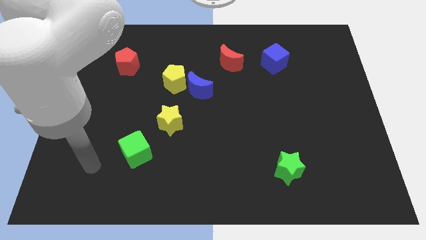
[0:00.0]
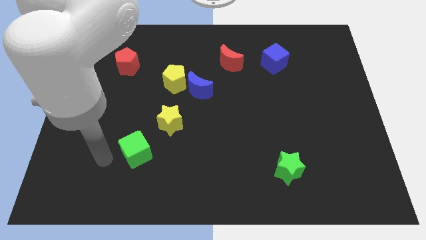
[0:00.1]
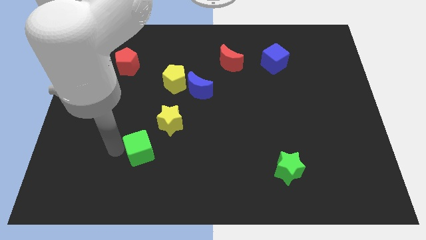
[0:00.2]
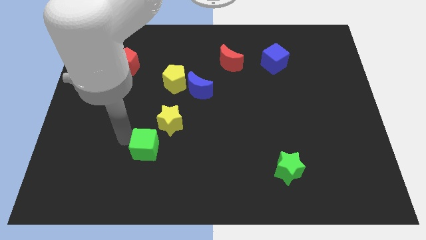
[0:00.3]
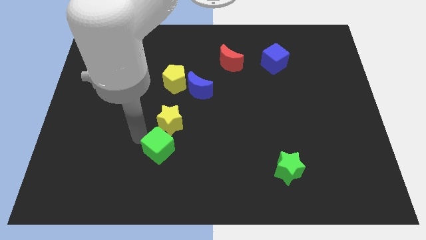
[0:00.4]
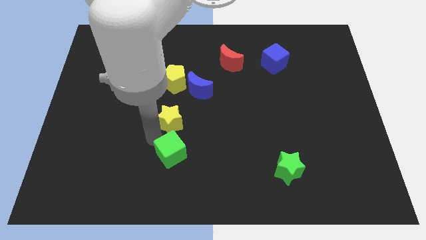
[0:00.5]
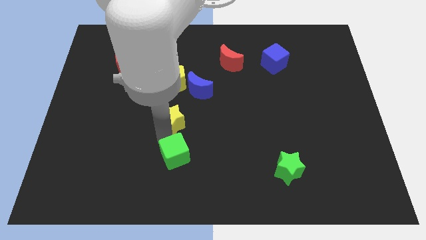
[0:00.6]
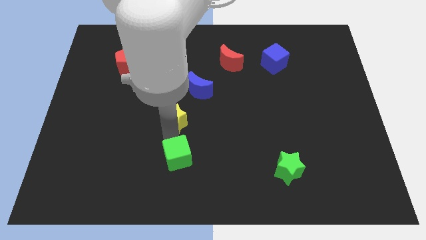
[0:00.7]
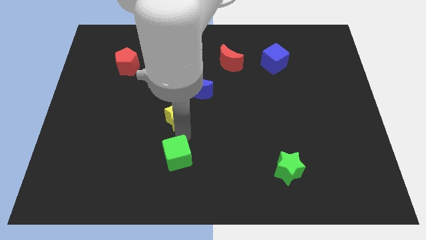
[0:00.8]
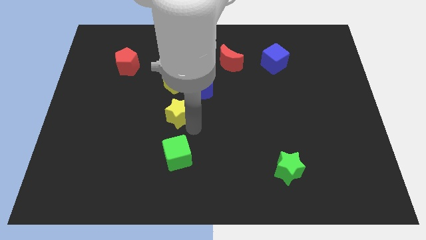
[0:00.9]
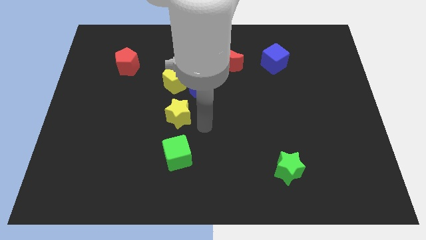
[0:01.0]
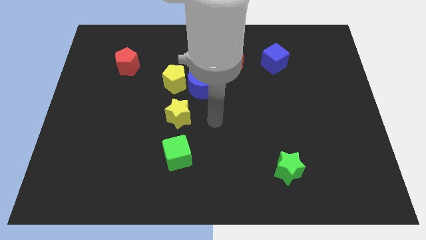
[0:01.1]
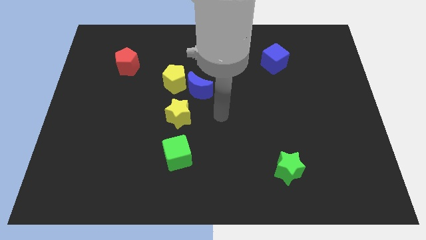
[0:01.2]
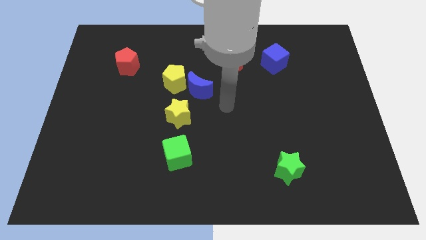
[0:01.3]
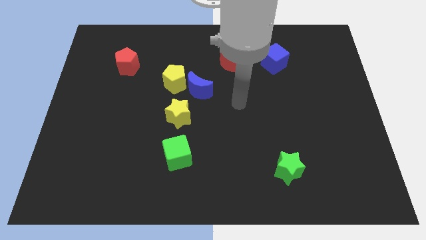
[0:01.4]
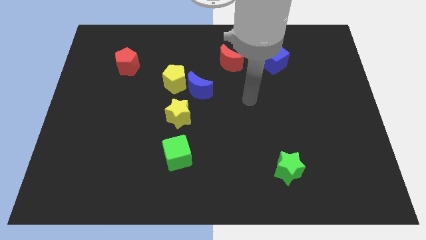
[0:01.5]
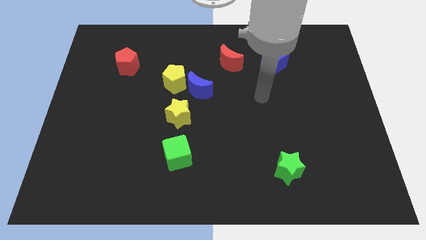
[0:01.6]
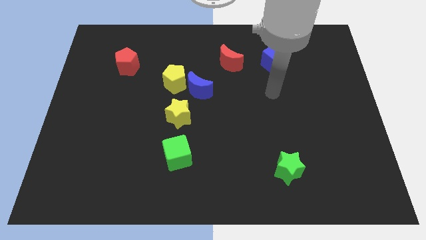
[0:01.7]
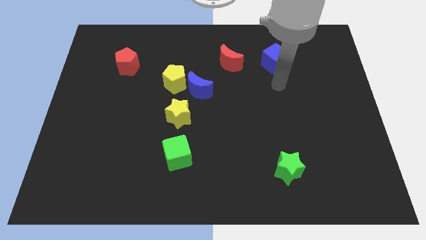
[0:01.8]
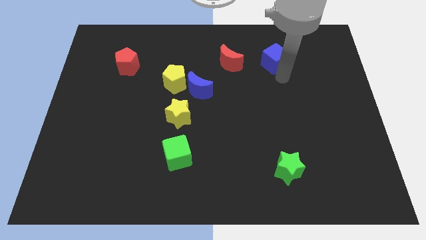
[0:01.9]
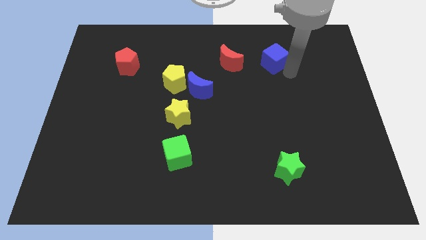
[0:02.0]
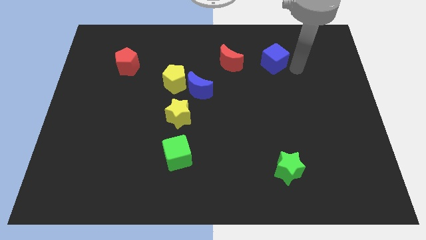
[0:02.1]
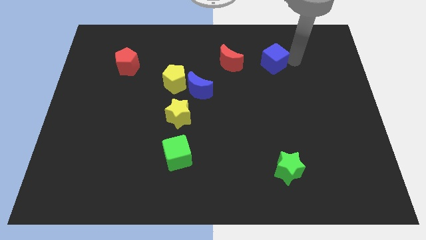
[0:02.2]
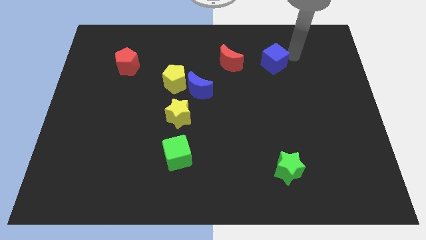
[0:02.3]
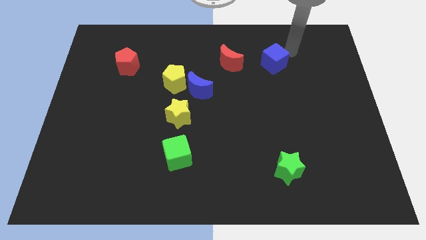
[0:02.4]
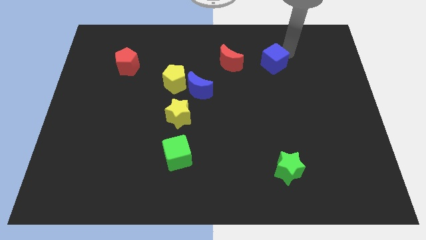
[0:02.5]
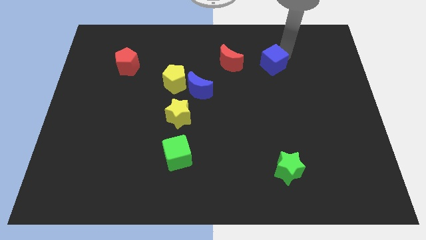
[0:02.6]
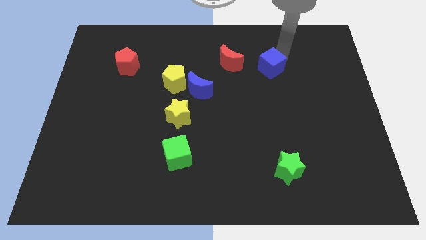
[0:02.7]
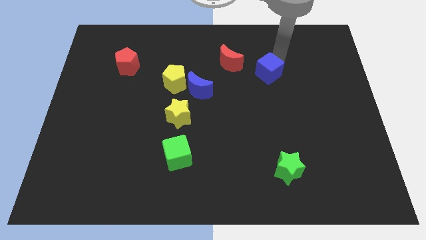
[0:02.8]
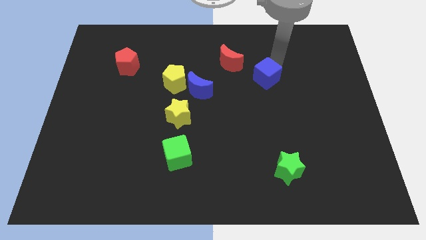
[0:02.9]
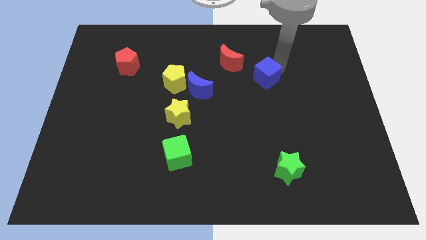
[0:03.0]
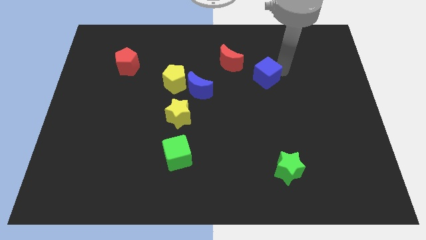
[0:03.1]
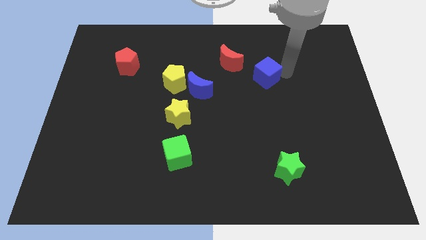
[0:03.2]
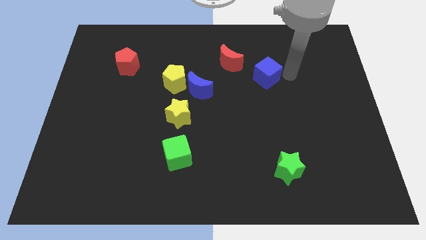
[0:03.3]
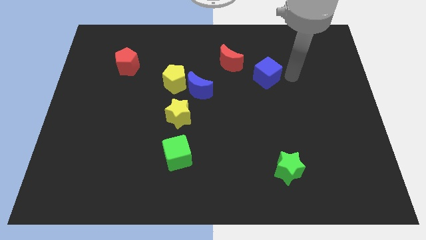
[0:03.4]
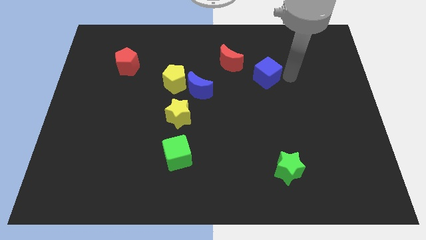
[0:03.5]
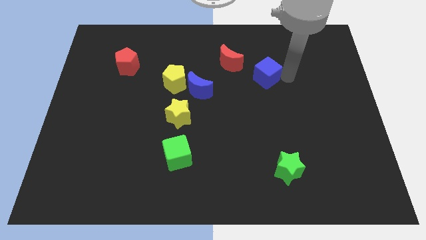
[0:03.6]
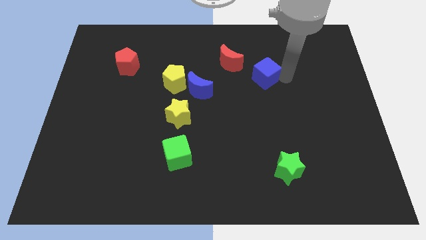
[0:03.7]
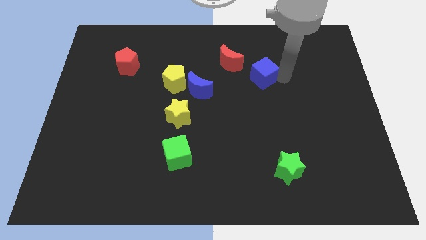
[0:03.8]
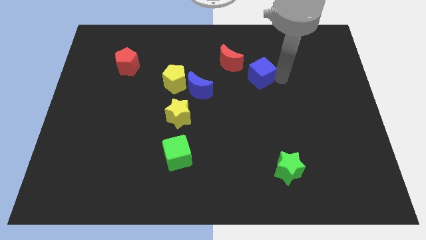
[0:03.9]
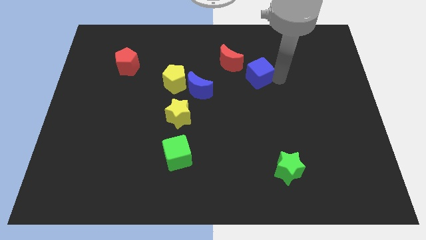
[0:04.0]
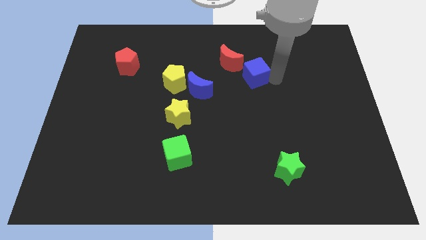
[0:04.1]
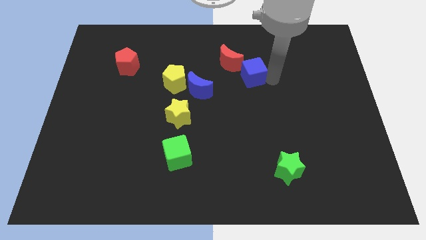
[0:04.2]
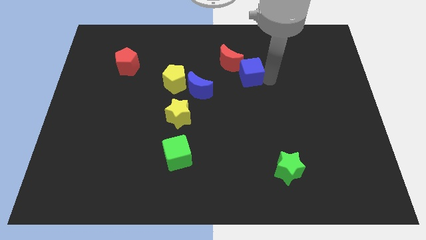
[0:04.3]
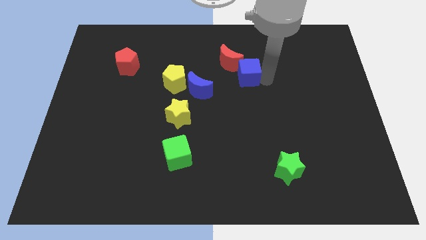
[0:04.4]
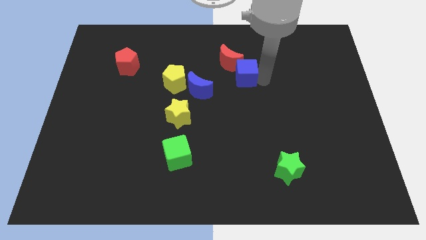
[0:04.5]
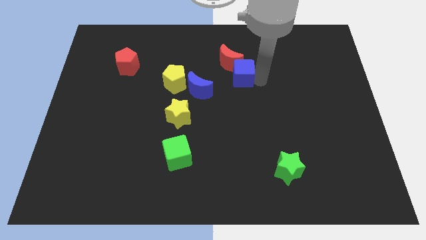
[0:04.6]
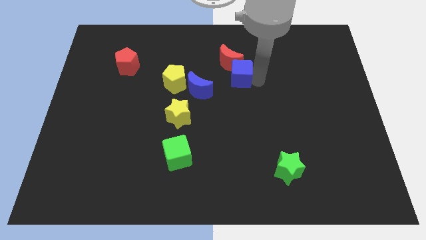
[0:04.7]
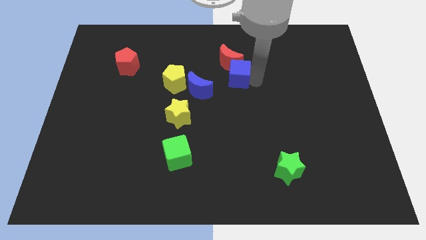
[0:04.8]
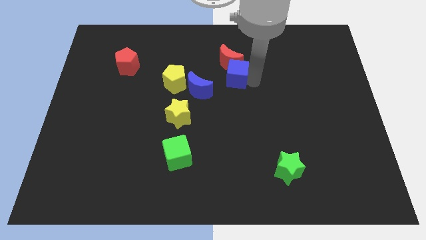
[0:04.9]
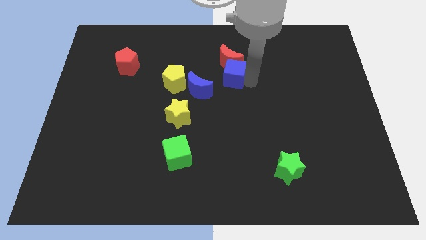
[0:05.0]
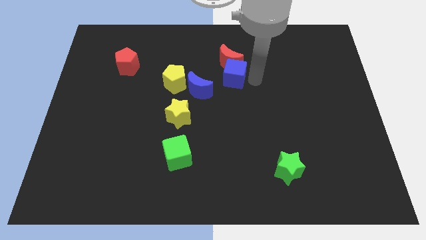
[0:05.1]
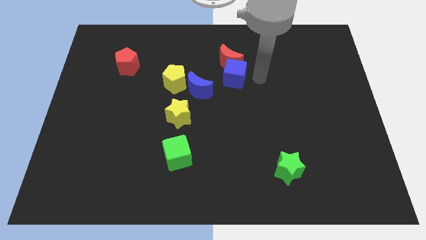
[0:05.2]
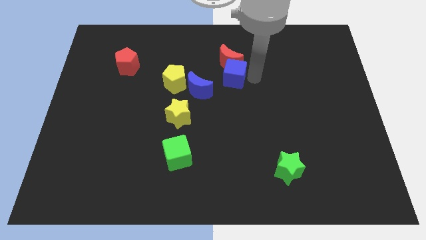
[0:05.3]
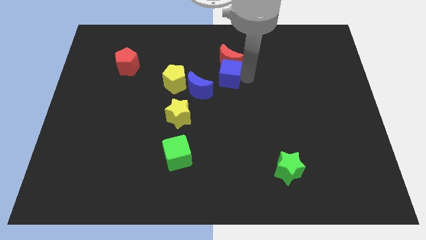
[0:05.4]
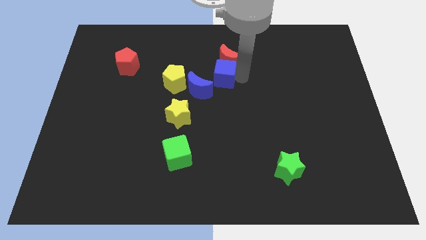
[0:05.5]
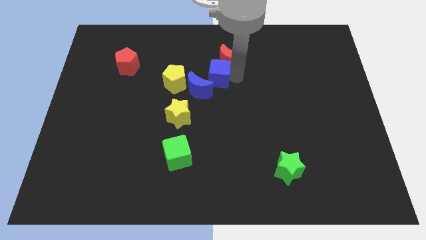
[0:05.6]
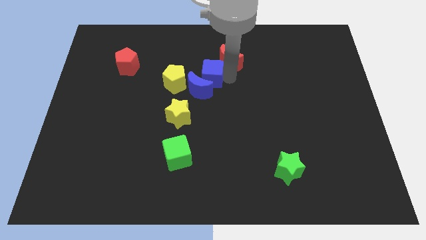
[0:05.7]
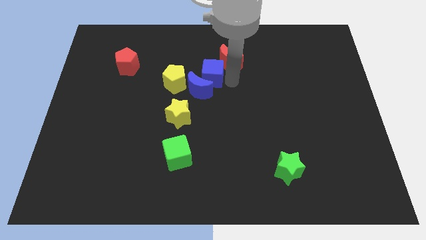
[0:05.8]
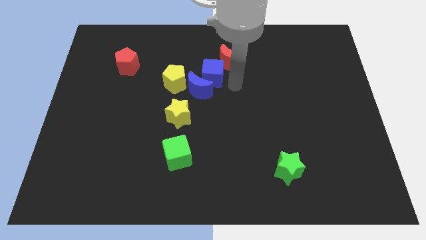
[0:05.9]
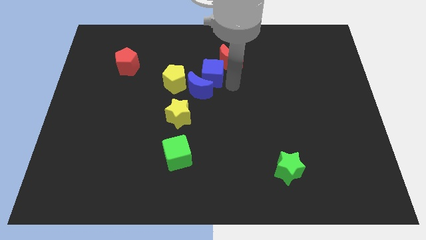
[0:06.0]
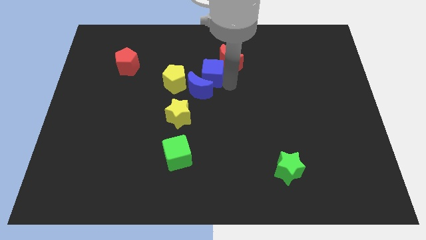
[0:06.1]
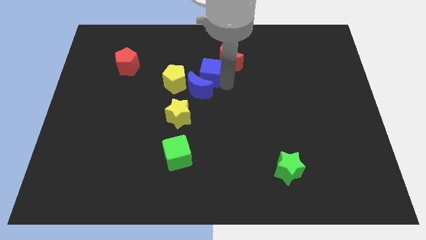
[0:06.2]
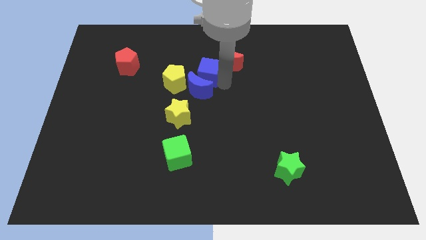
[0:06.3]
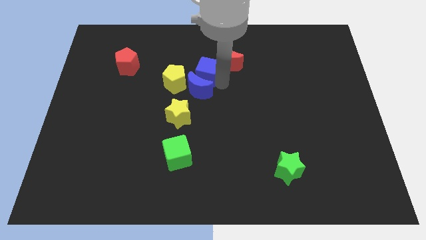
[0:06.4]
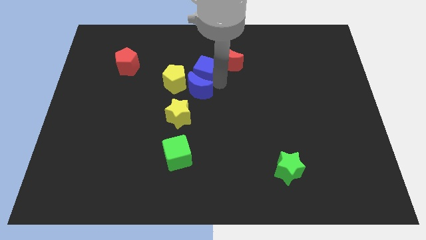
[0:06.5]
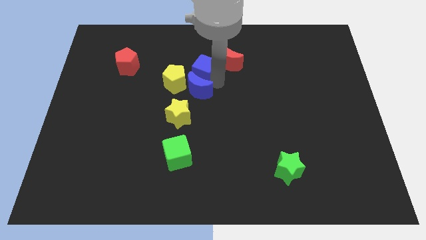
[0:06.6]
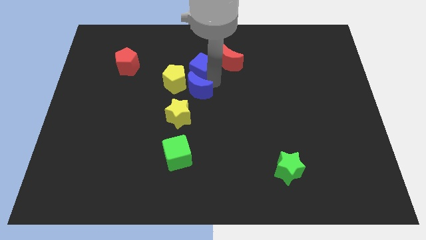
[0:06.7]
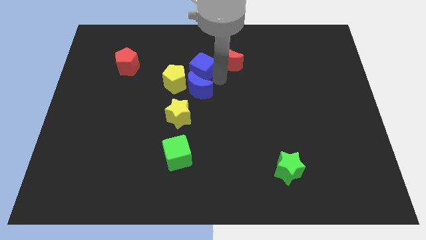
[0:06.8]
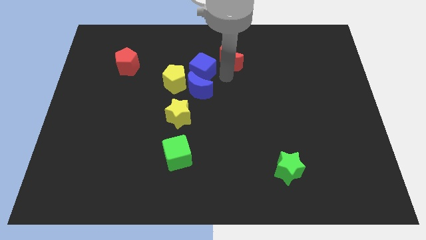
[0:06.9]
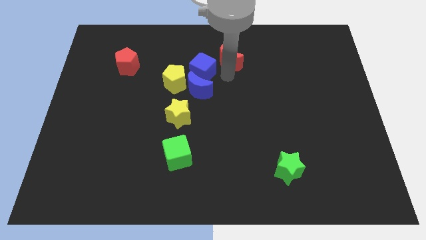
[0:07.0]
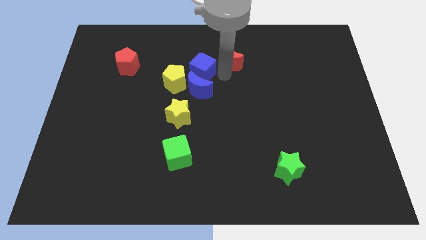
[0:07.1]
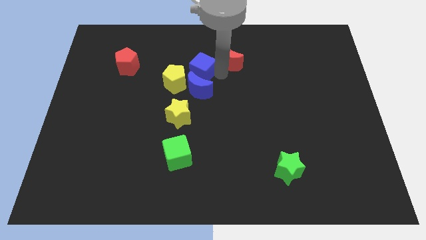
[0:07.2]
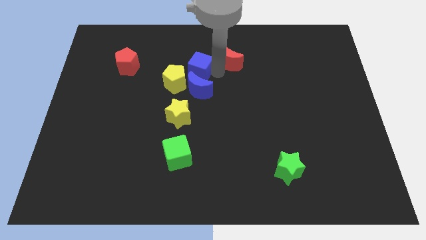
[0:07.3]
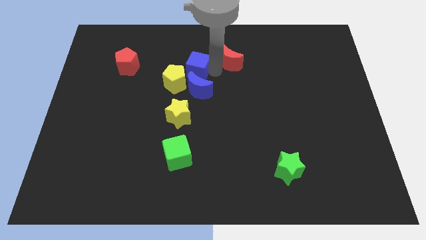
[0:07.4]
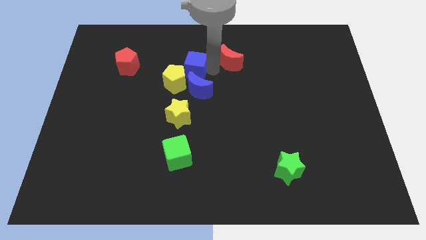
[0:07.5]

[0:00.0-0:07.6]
slide the blue cube to the left

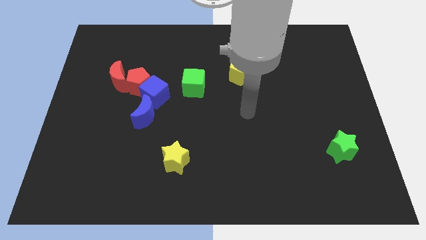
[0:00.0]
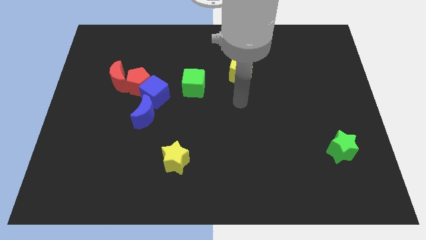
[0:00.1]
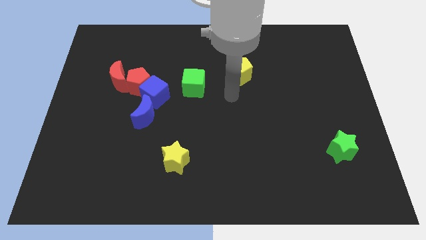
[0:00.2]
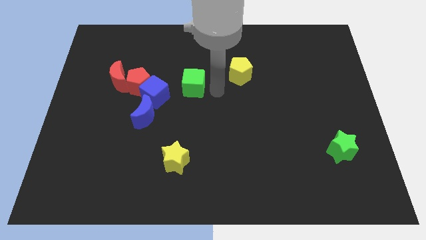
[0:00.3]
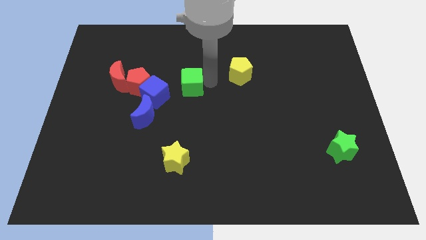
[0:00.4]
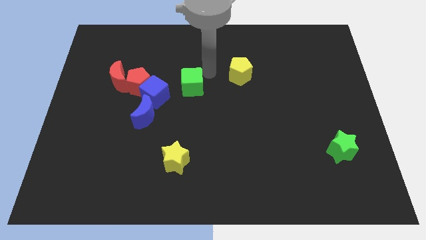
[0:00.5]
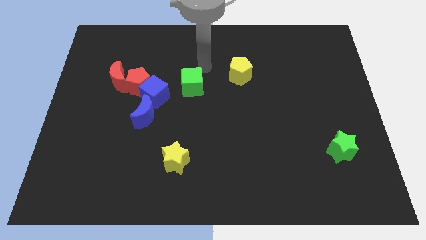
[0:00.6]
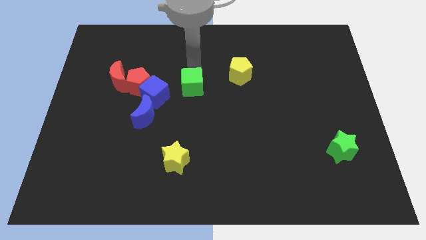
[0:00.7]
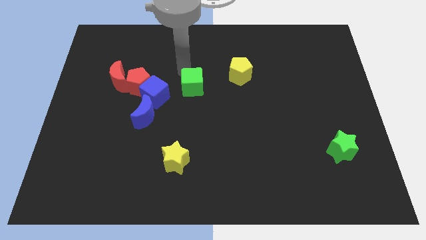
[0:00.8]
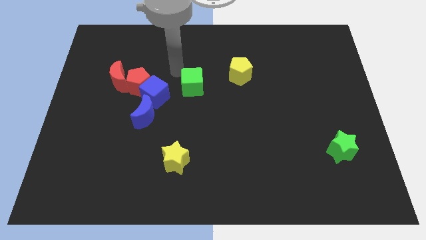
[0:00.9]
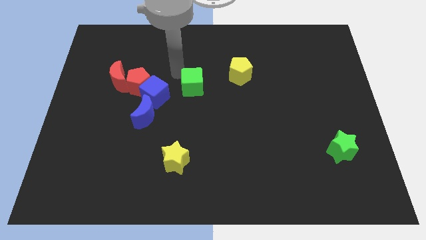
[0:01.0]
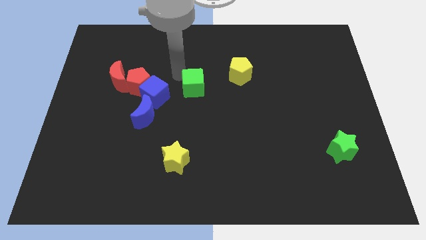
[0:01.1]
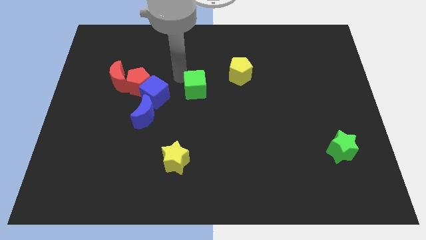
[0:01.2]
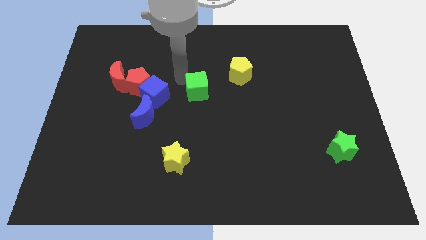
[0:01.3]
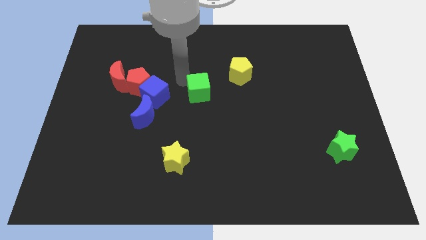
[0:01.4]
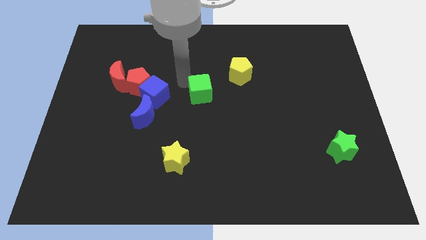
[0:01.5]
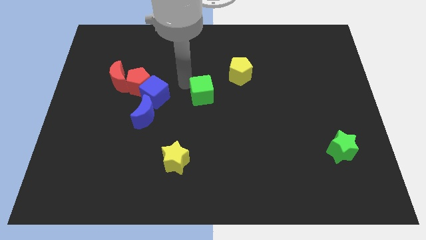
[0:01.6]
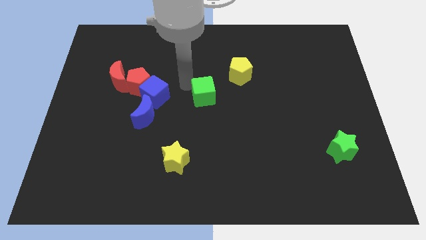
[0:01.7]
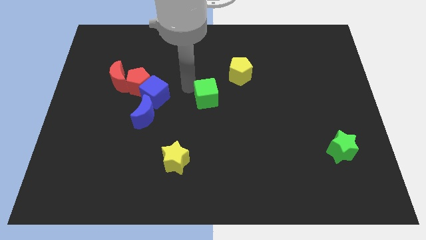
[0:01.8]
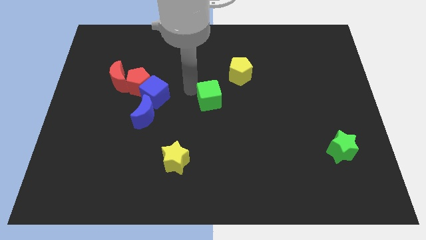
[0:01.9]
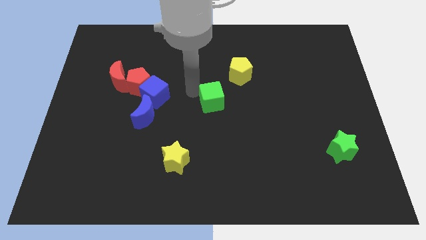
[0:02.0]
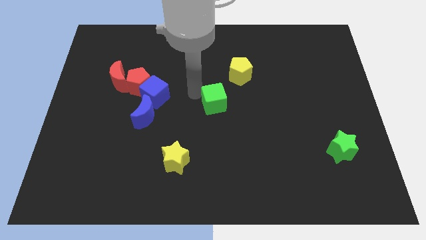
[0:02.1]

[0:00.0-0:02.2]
slightly push the green cube diagonally downwards and right
